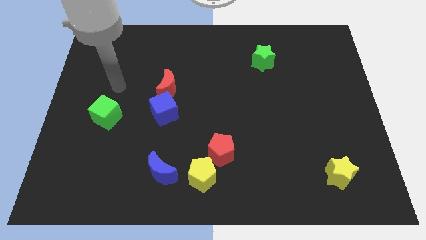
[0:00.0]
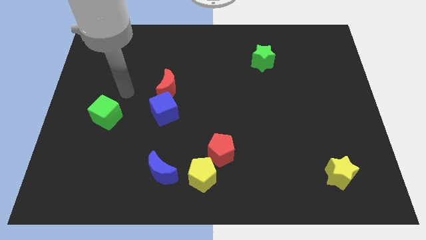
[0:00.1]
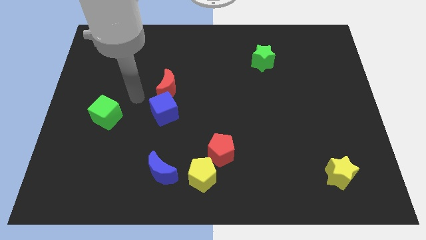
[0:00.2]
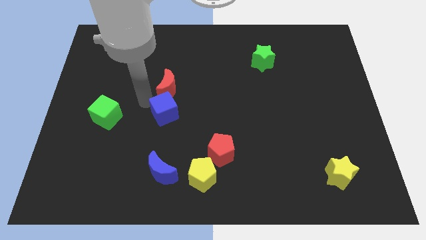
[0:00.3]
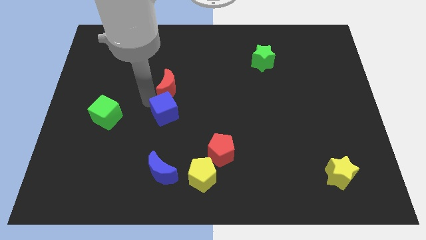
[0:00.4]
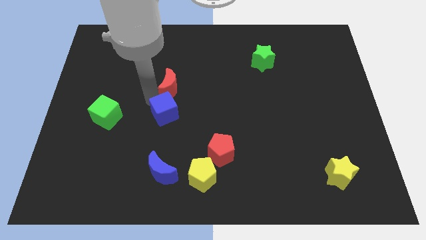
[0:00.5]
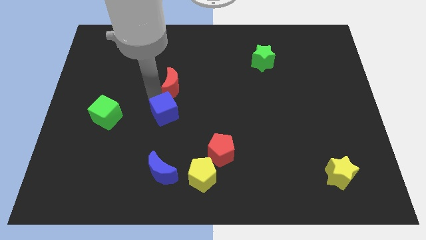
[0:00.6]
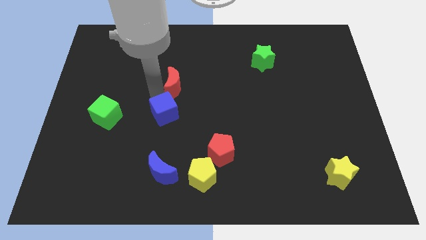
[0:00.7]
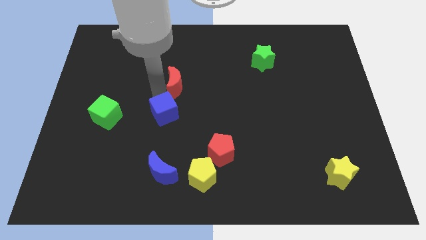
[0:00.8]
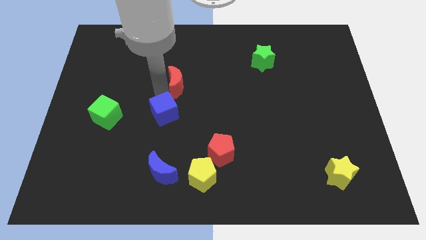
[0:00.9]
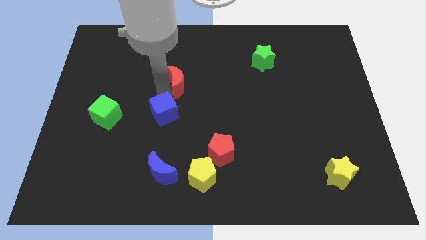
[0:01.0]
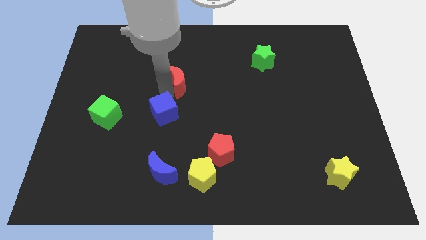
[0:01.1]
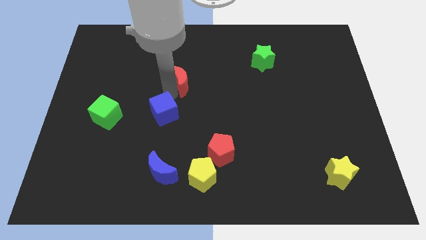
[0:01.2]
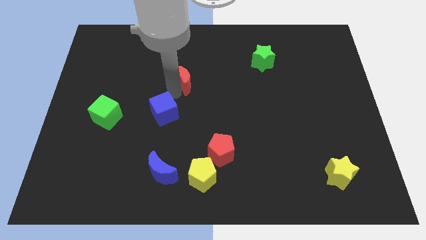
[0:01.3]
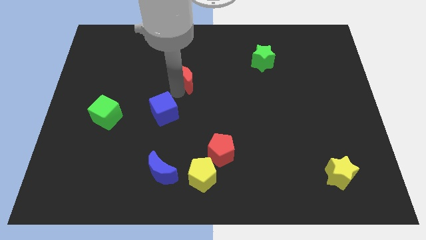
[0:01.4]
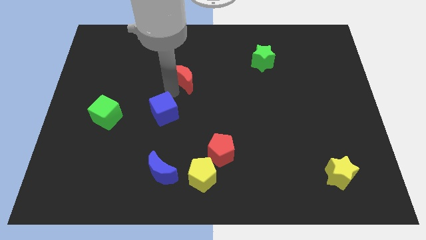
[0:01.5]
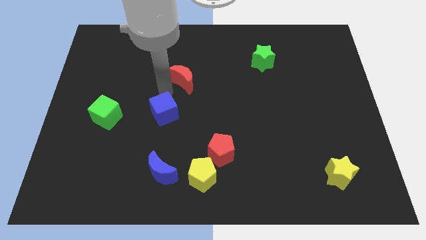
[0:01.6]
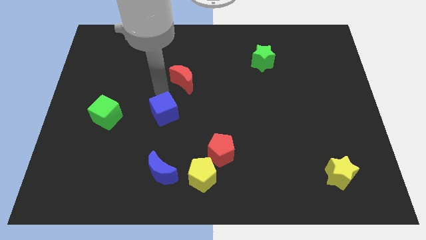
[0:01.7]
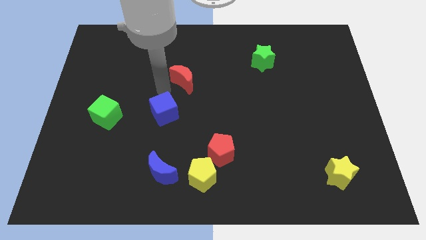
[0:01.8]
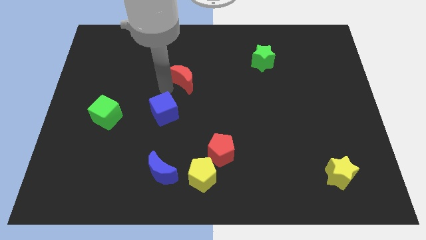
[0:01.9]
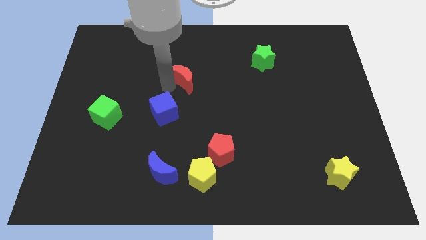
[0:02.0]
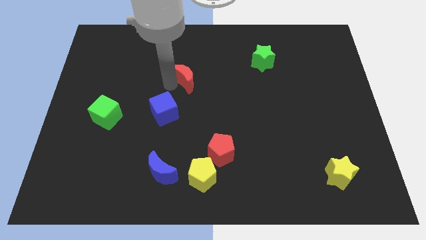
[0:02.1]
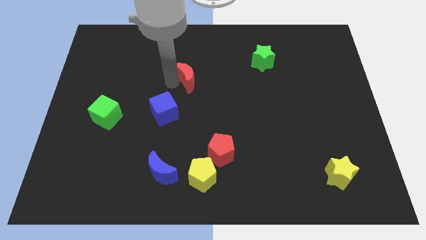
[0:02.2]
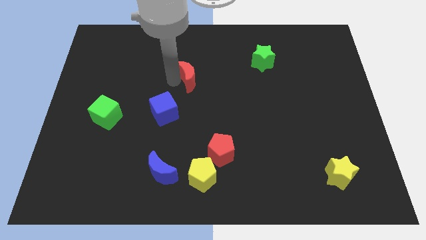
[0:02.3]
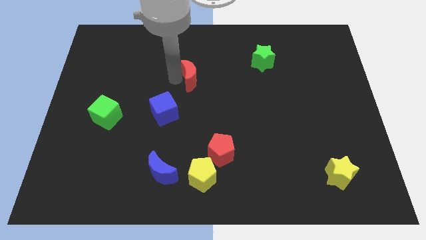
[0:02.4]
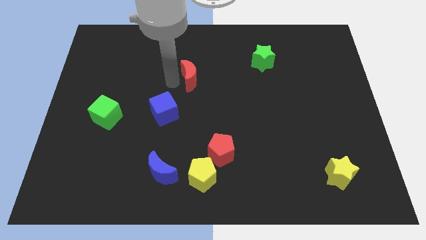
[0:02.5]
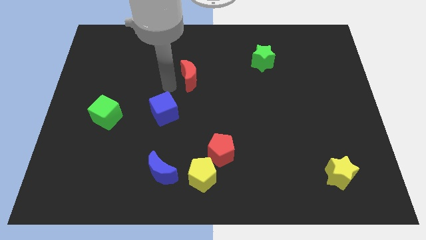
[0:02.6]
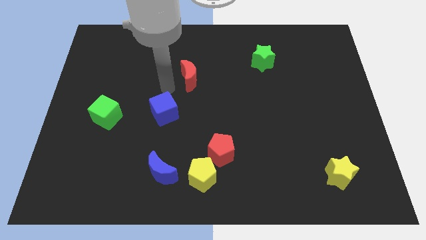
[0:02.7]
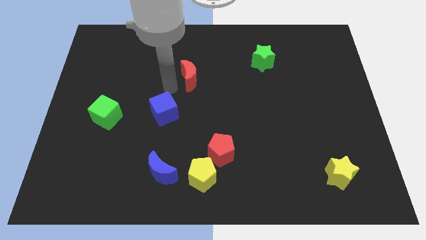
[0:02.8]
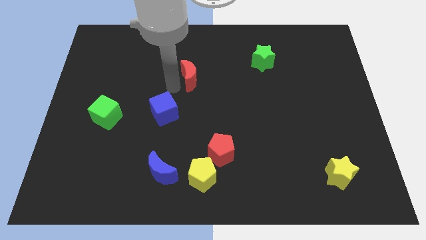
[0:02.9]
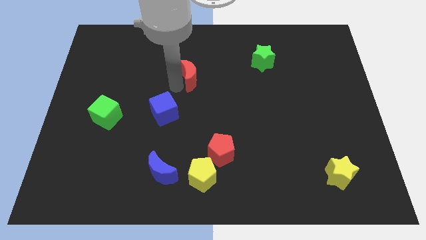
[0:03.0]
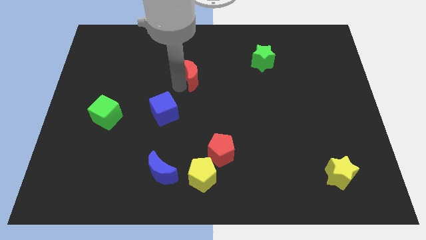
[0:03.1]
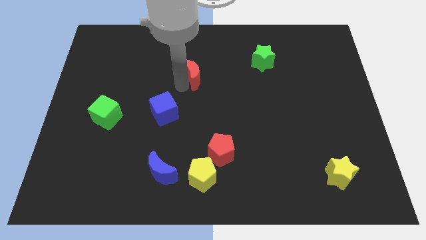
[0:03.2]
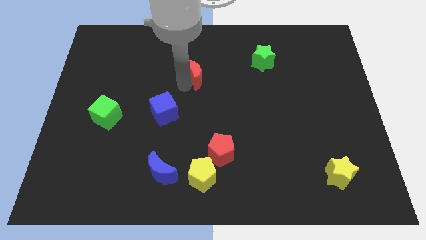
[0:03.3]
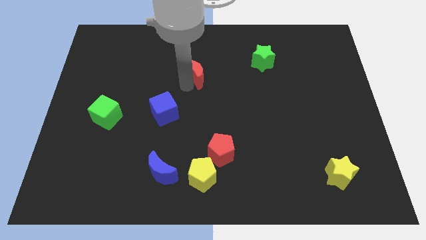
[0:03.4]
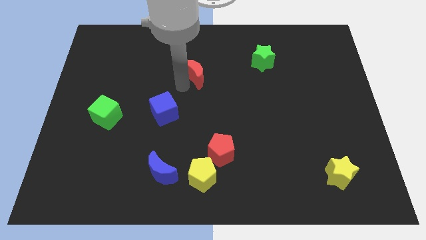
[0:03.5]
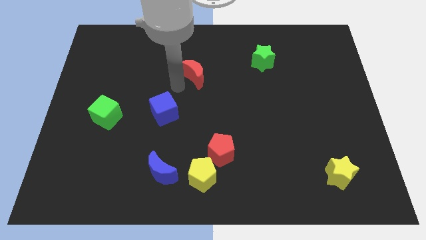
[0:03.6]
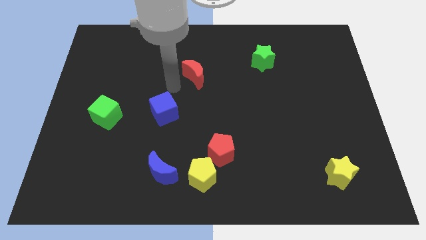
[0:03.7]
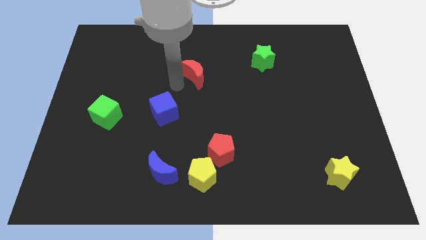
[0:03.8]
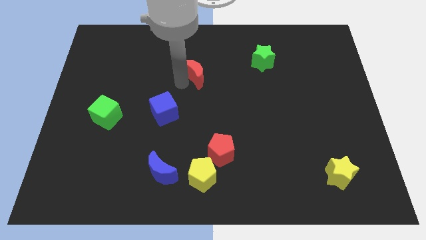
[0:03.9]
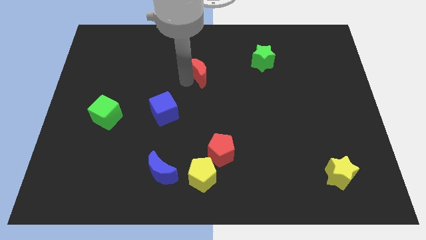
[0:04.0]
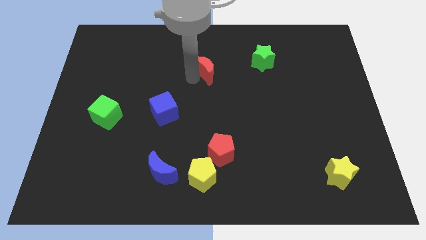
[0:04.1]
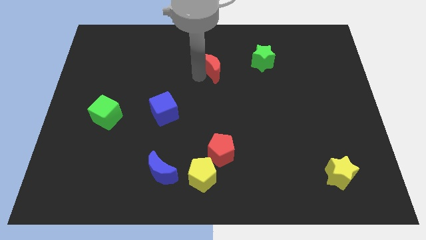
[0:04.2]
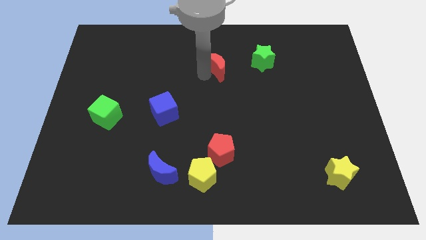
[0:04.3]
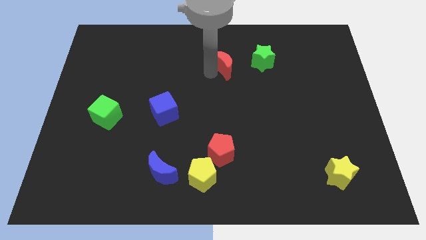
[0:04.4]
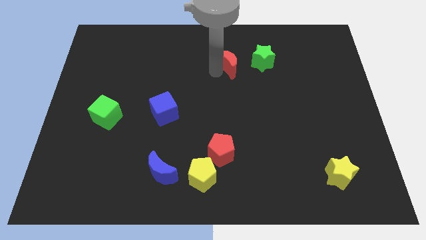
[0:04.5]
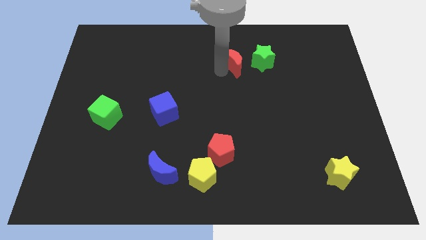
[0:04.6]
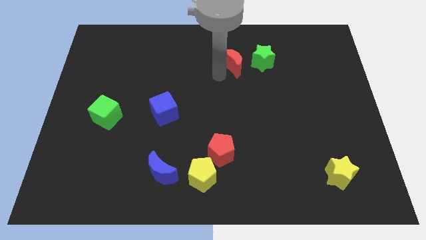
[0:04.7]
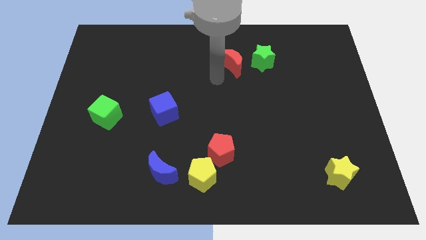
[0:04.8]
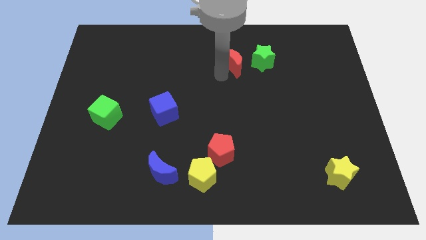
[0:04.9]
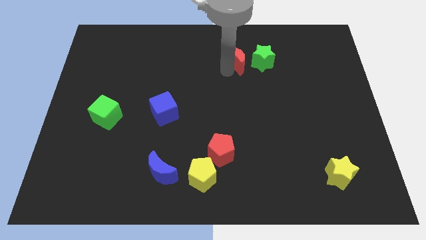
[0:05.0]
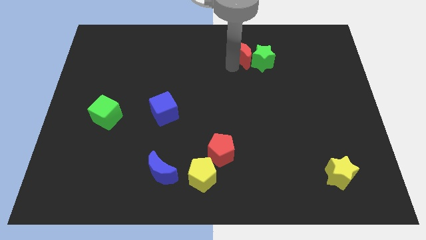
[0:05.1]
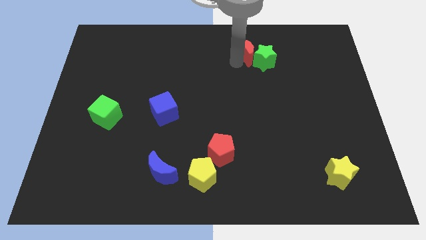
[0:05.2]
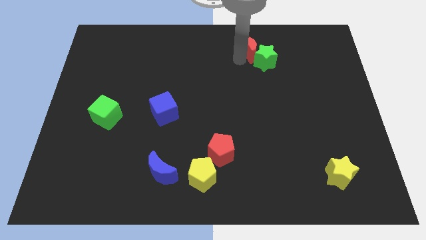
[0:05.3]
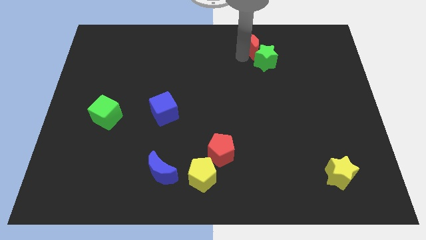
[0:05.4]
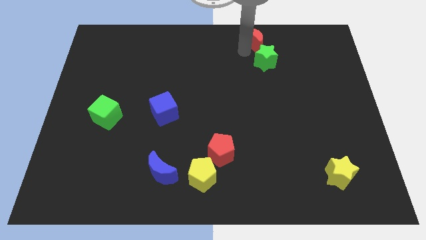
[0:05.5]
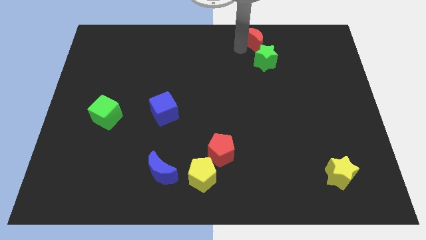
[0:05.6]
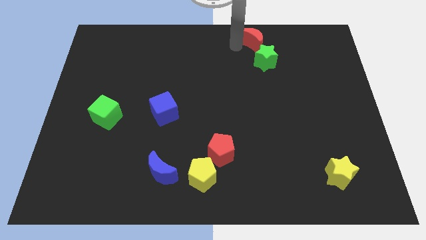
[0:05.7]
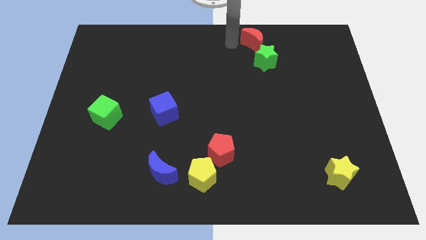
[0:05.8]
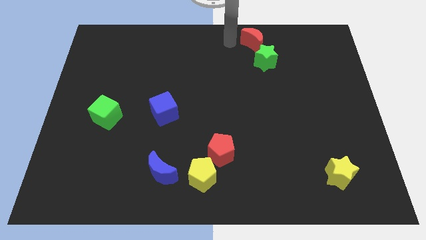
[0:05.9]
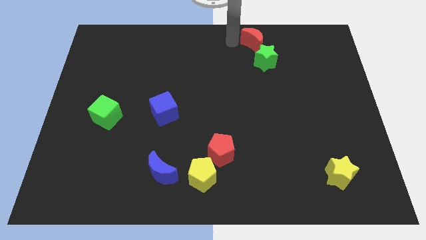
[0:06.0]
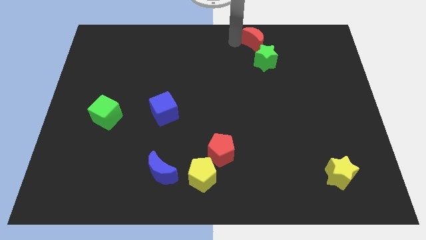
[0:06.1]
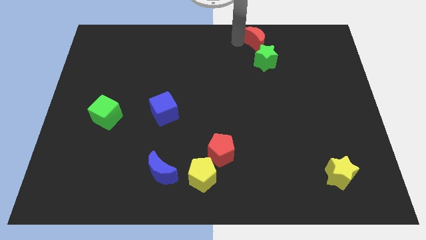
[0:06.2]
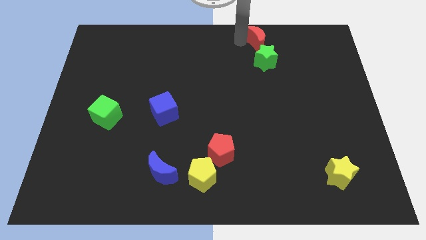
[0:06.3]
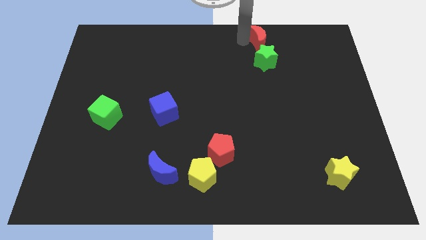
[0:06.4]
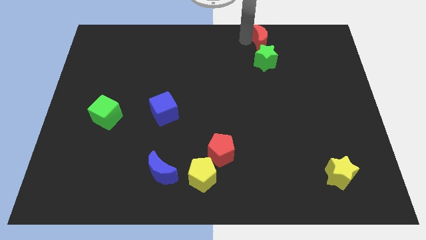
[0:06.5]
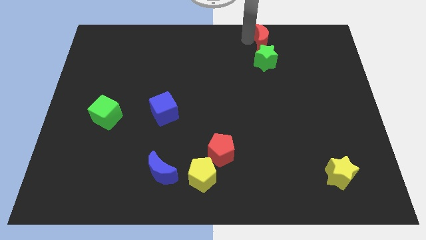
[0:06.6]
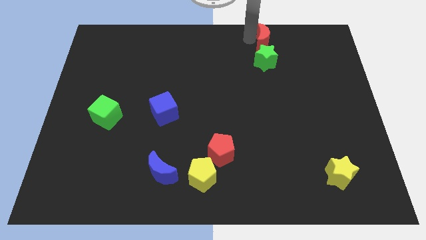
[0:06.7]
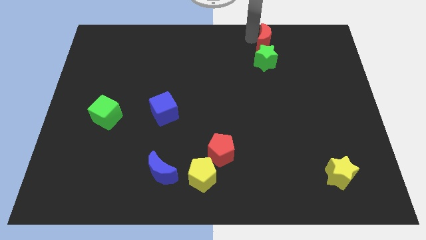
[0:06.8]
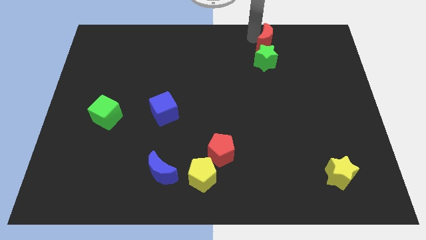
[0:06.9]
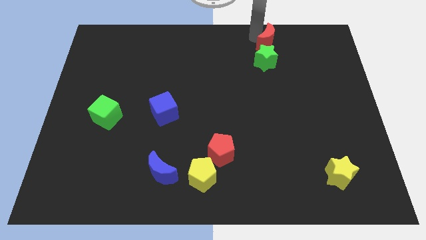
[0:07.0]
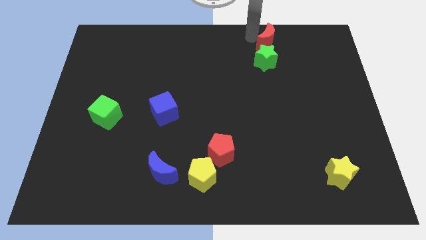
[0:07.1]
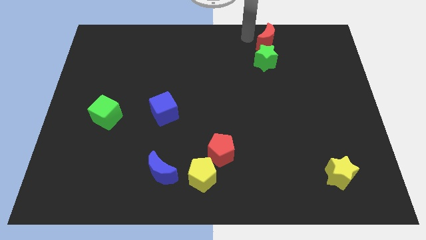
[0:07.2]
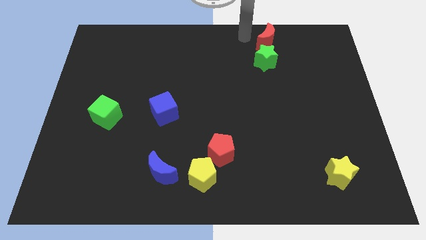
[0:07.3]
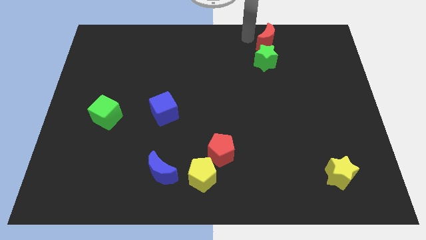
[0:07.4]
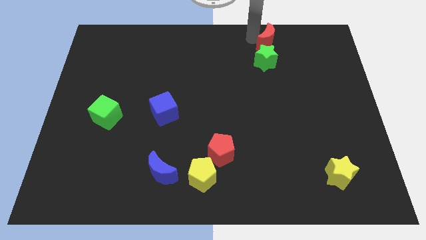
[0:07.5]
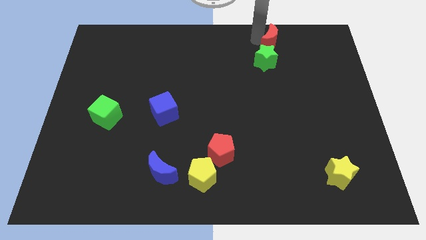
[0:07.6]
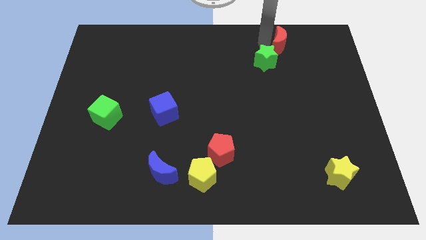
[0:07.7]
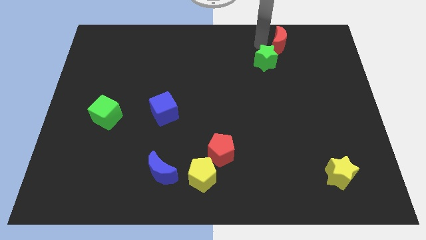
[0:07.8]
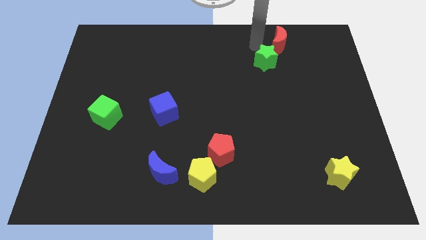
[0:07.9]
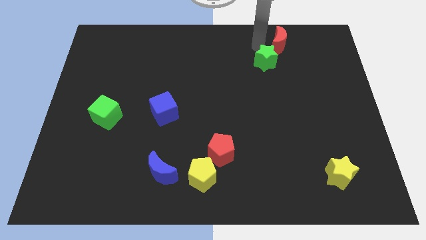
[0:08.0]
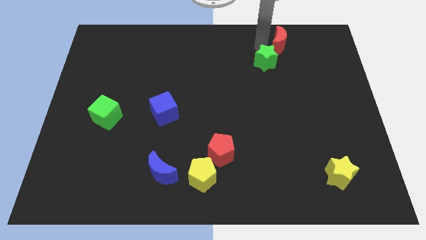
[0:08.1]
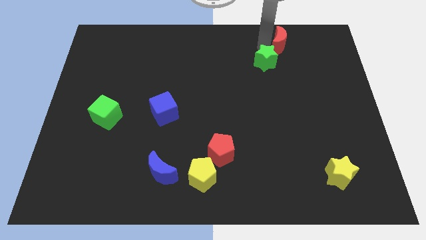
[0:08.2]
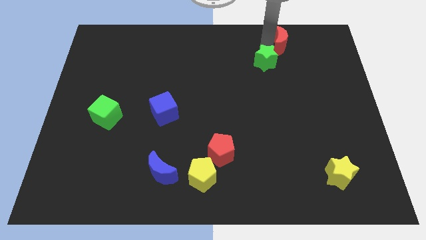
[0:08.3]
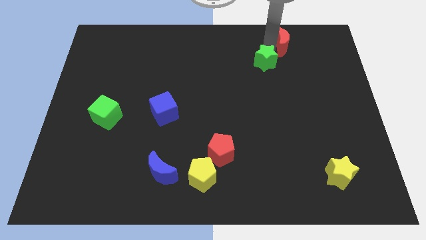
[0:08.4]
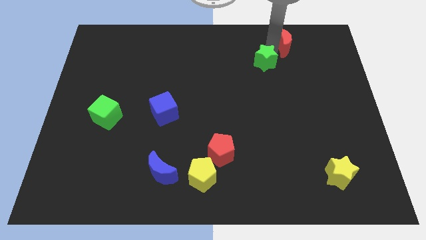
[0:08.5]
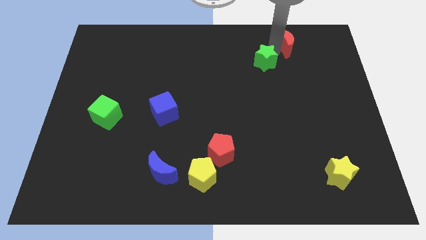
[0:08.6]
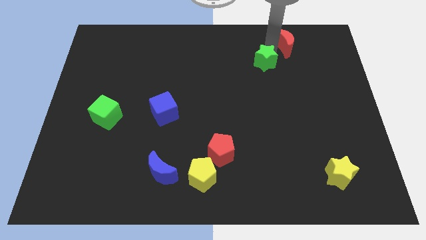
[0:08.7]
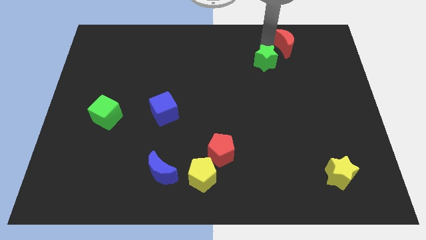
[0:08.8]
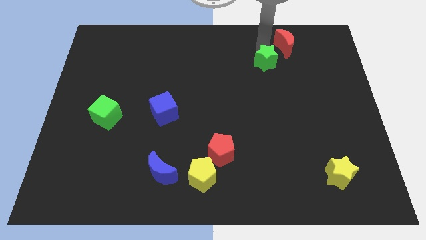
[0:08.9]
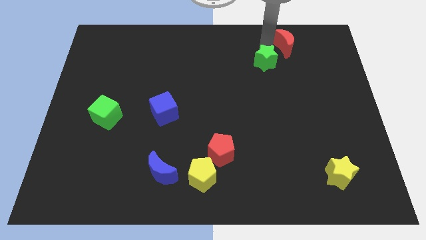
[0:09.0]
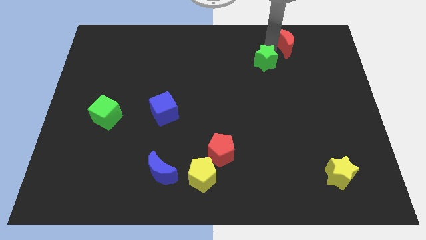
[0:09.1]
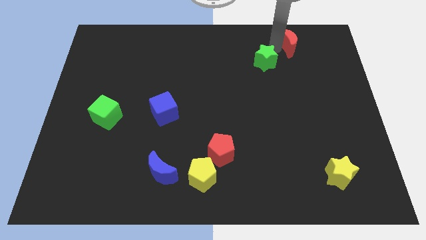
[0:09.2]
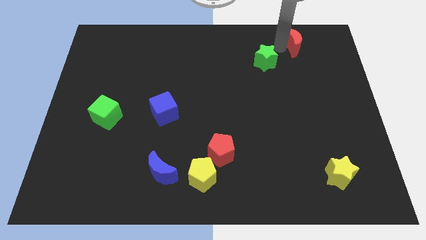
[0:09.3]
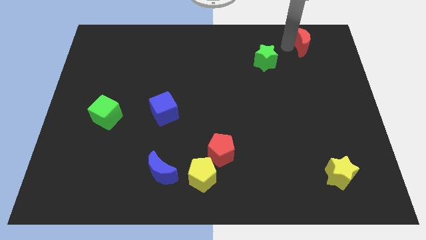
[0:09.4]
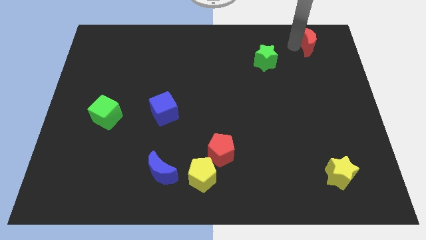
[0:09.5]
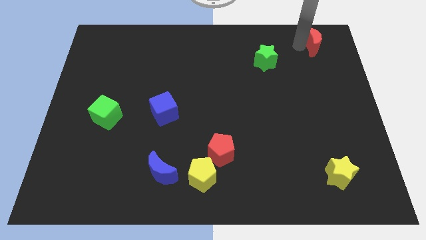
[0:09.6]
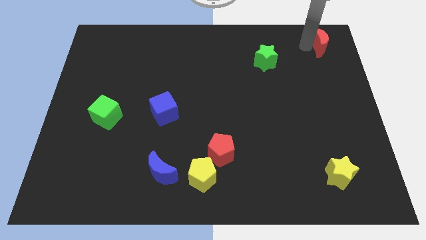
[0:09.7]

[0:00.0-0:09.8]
put the red moon to the top right corner
